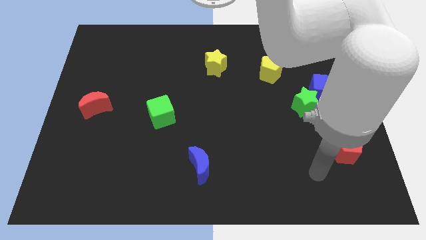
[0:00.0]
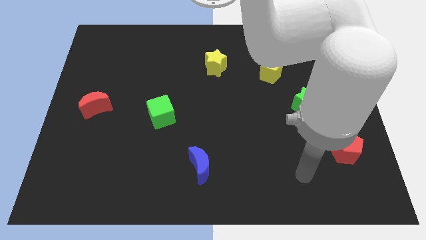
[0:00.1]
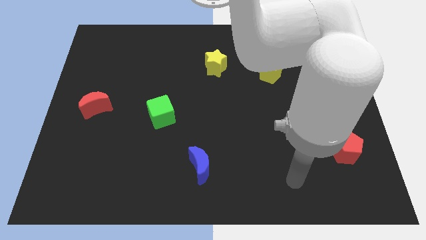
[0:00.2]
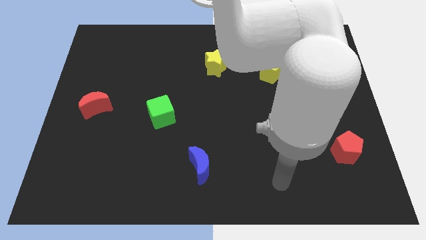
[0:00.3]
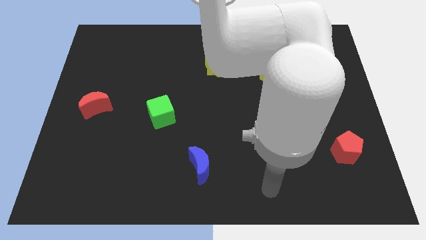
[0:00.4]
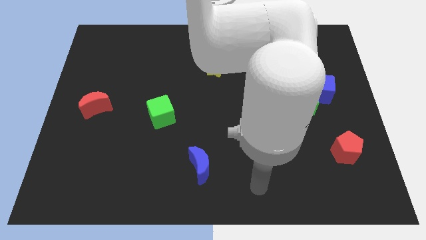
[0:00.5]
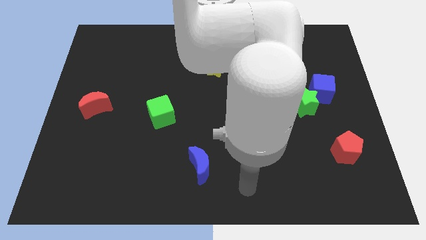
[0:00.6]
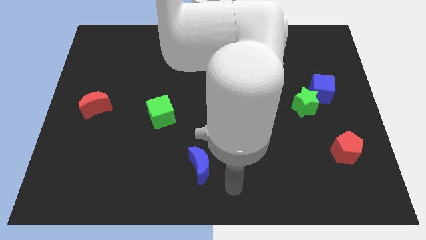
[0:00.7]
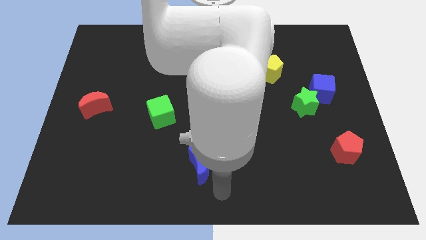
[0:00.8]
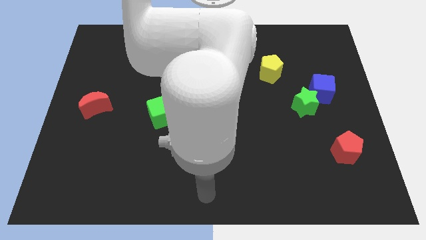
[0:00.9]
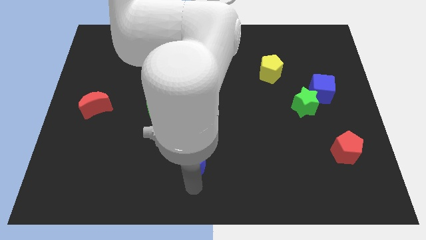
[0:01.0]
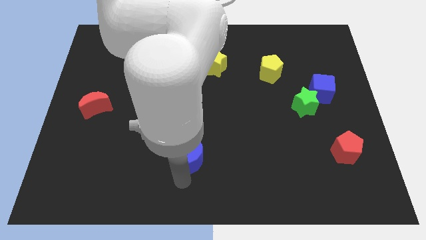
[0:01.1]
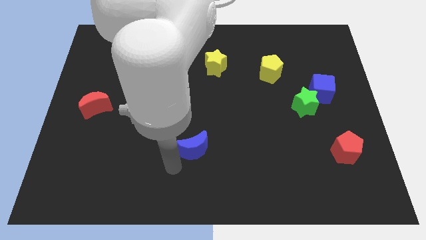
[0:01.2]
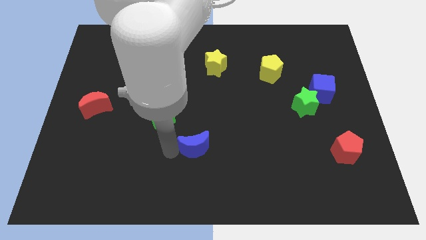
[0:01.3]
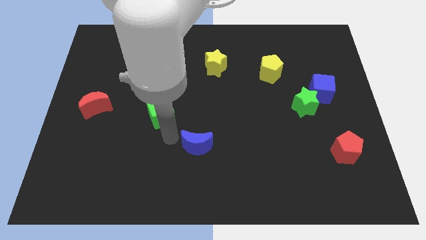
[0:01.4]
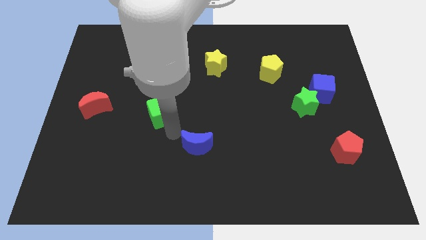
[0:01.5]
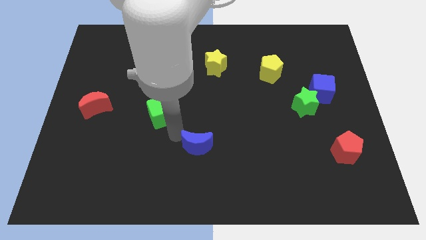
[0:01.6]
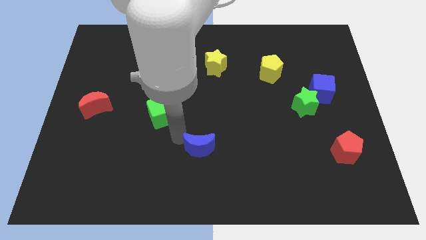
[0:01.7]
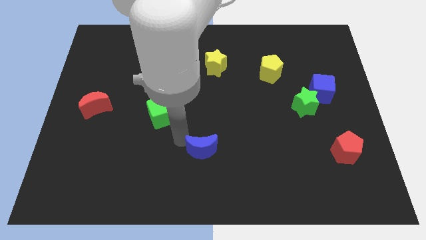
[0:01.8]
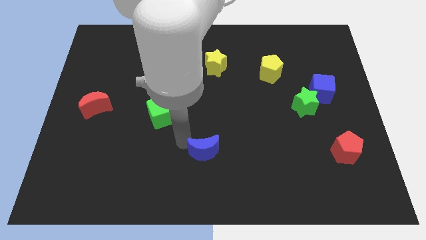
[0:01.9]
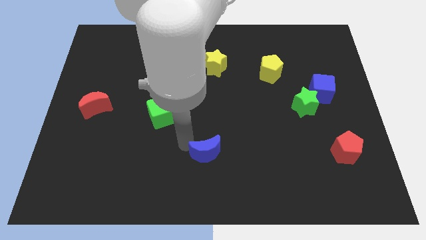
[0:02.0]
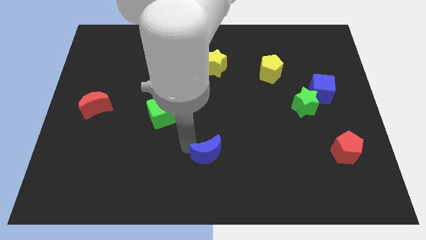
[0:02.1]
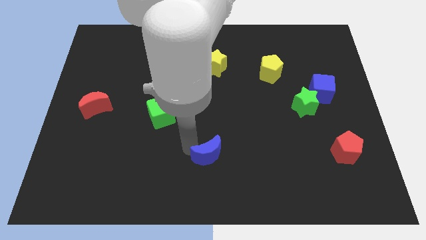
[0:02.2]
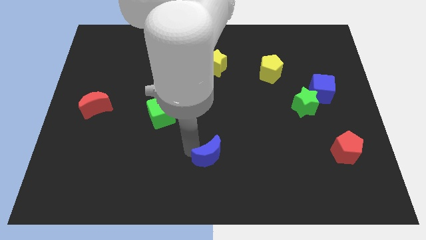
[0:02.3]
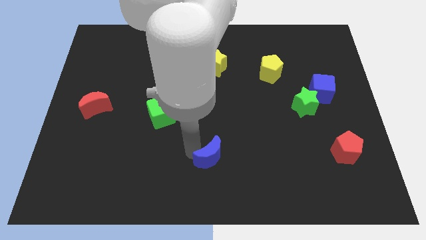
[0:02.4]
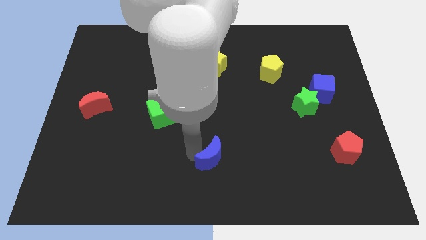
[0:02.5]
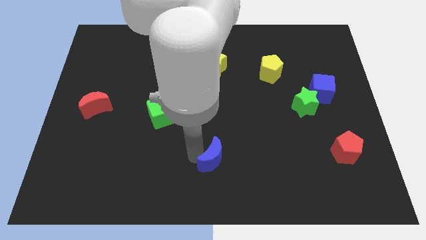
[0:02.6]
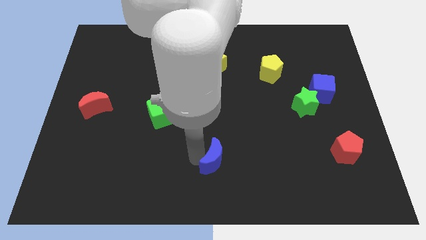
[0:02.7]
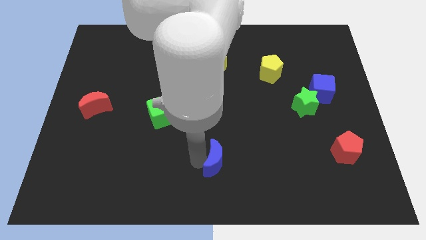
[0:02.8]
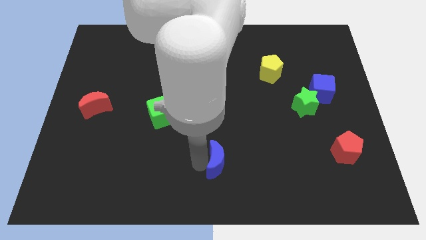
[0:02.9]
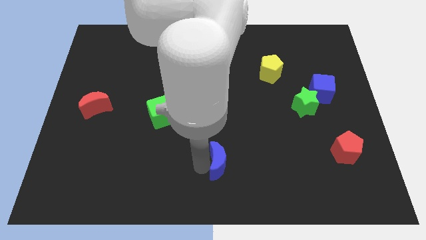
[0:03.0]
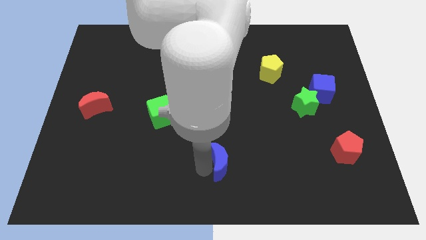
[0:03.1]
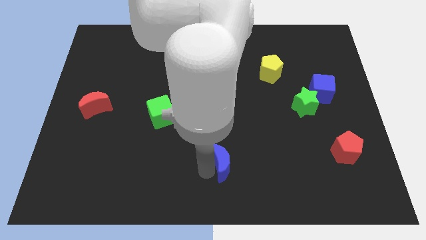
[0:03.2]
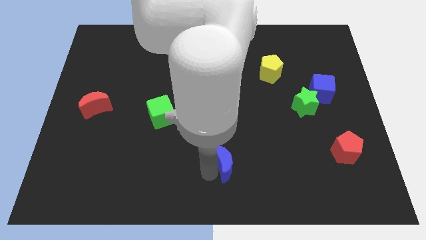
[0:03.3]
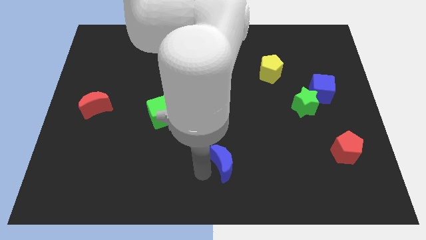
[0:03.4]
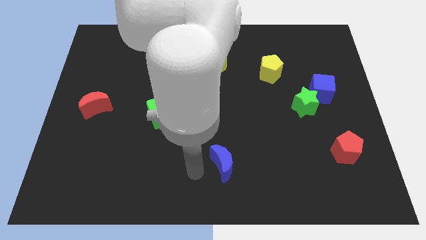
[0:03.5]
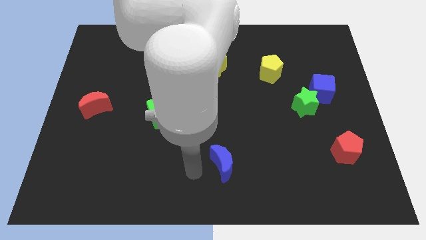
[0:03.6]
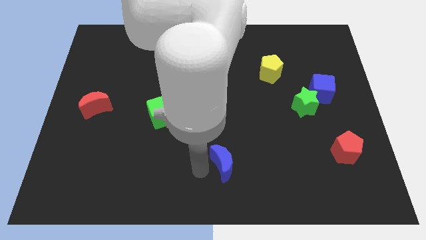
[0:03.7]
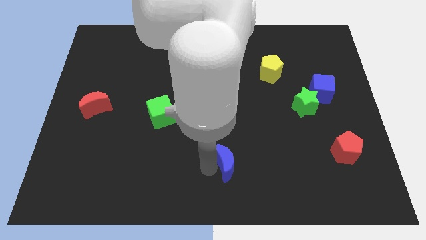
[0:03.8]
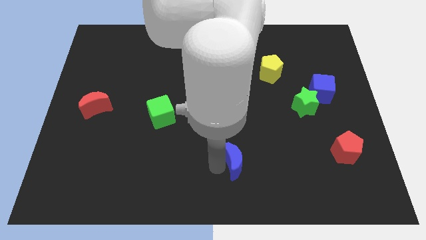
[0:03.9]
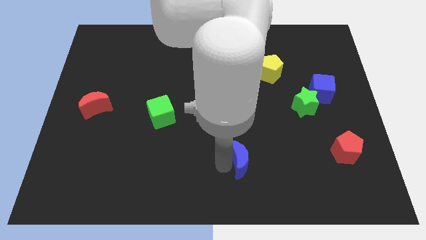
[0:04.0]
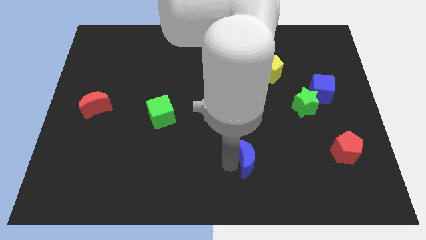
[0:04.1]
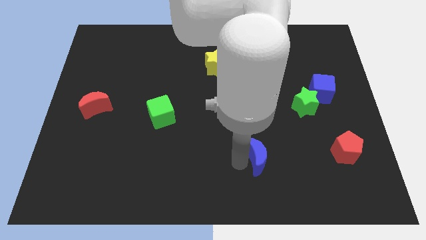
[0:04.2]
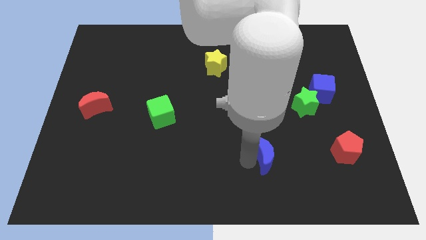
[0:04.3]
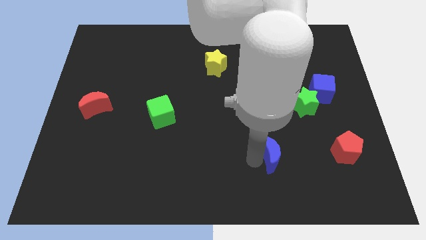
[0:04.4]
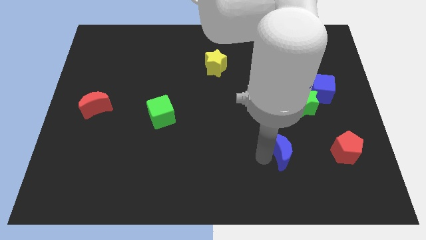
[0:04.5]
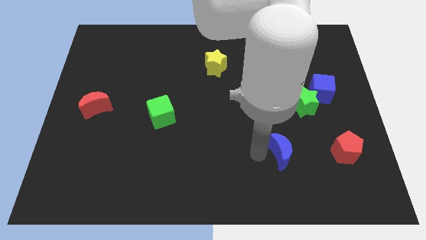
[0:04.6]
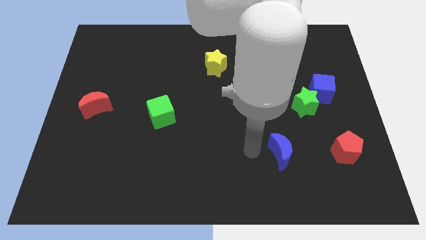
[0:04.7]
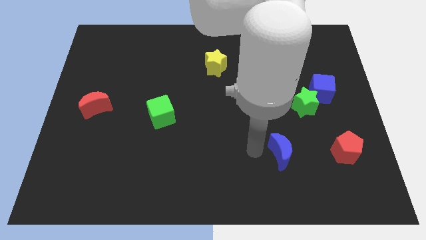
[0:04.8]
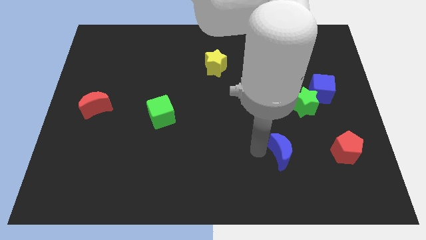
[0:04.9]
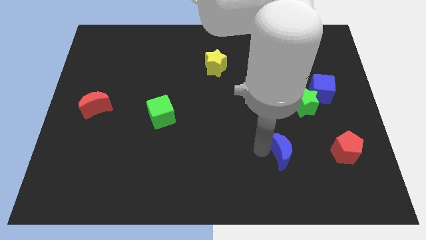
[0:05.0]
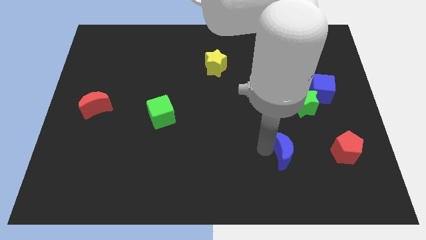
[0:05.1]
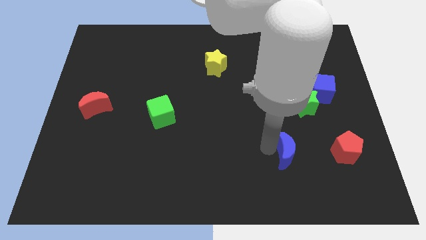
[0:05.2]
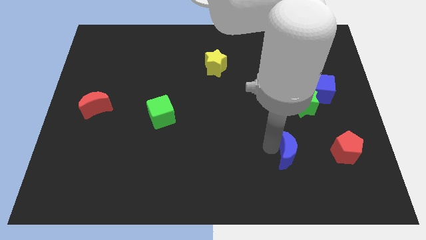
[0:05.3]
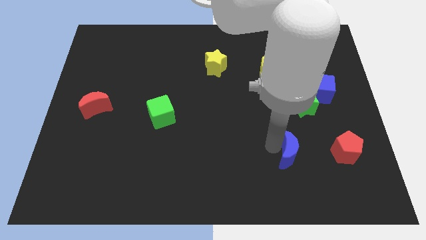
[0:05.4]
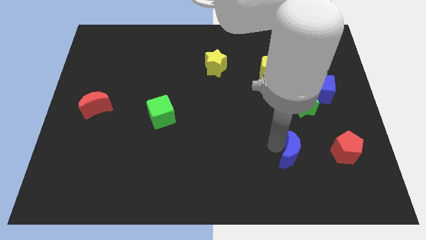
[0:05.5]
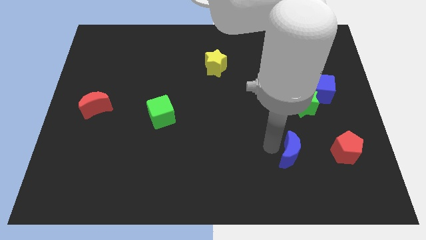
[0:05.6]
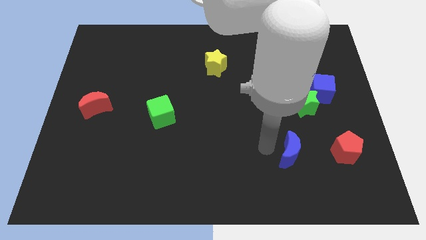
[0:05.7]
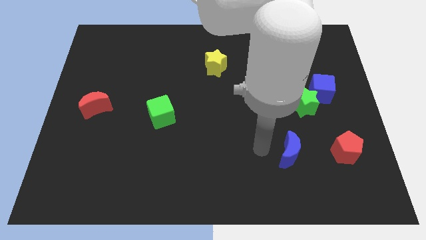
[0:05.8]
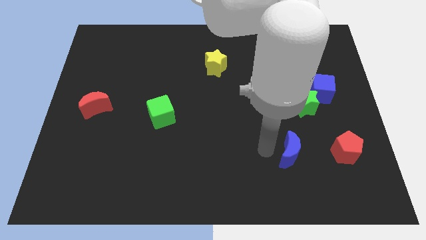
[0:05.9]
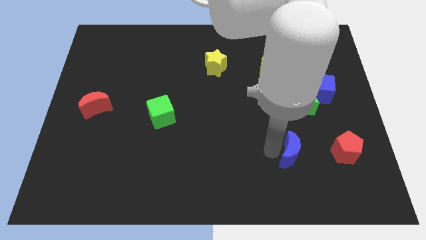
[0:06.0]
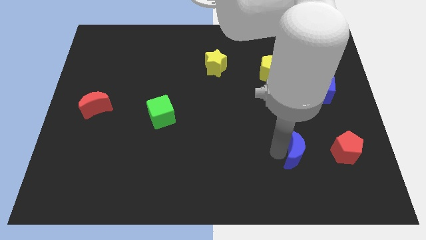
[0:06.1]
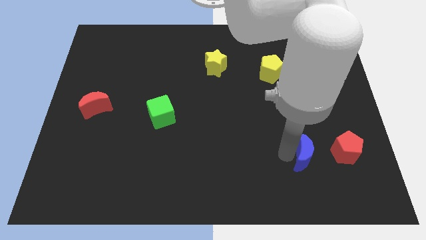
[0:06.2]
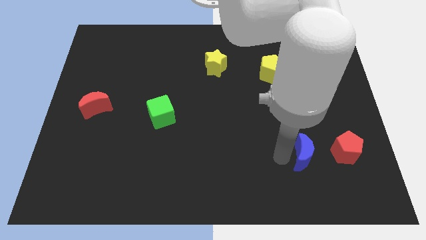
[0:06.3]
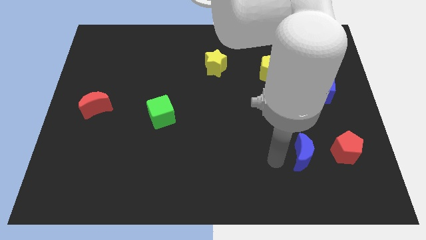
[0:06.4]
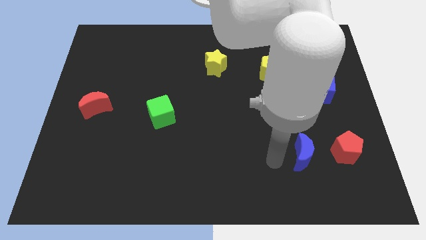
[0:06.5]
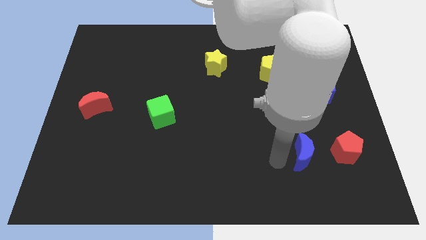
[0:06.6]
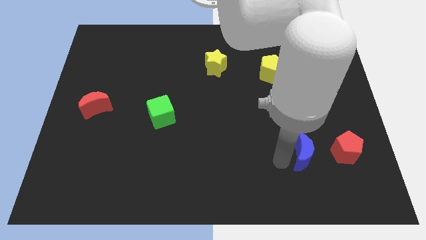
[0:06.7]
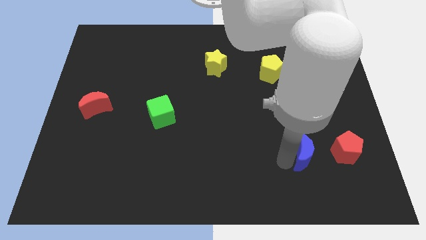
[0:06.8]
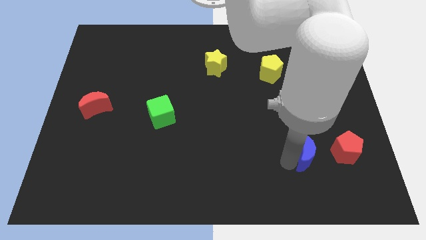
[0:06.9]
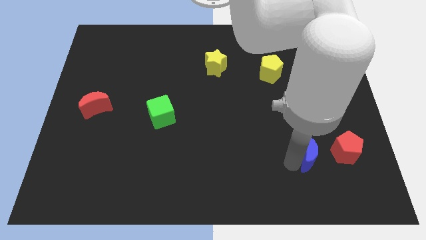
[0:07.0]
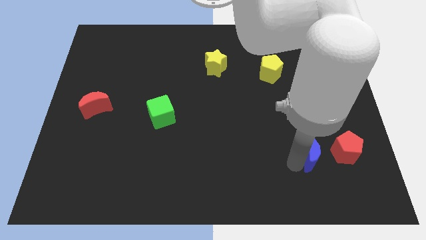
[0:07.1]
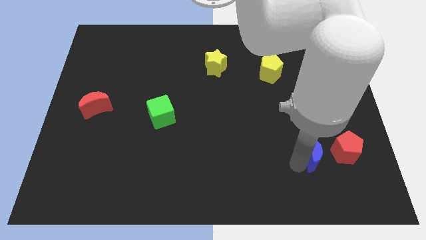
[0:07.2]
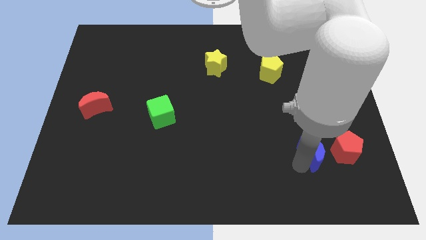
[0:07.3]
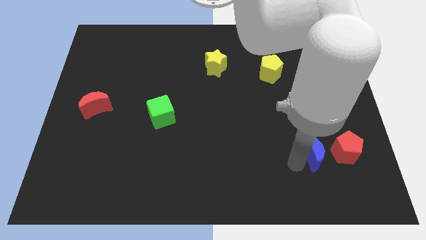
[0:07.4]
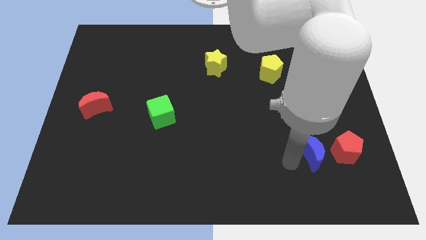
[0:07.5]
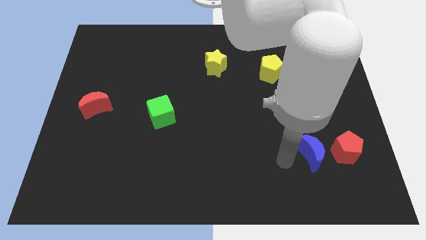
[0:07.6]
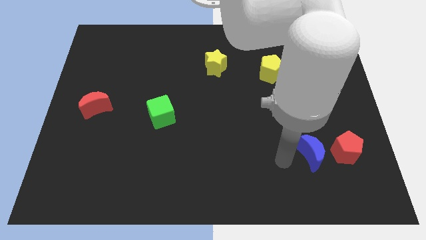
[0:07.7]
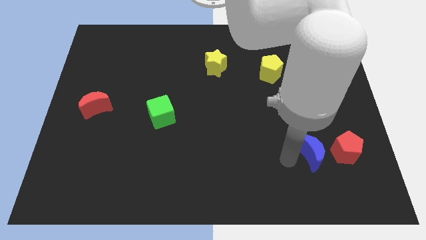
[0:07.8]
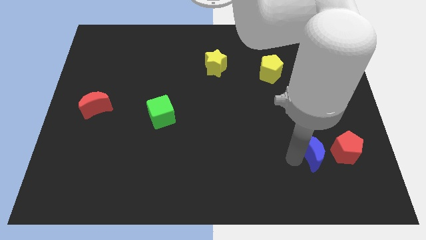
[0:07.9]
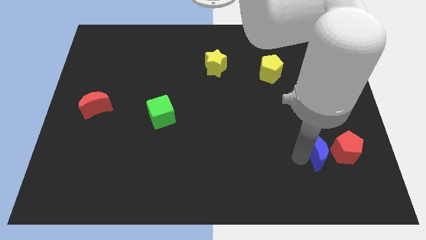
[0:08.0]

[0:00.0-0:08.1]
slide the blue moon to the red pentagon

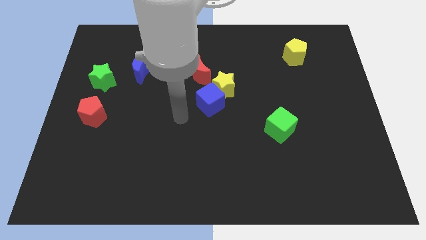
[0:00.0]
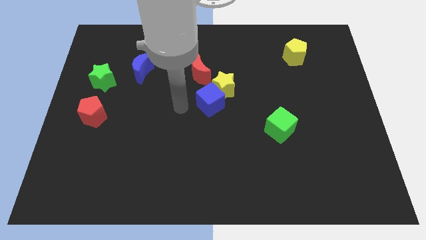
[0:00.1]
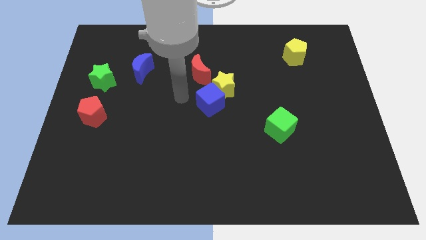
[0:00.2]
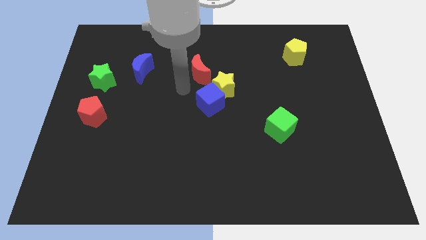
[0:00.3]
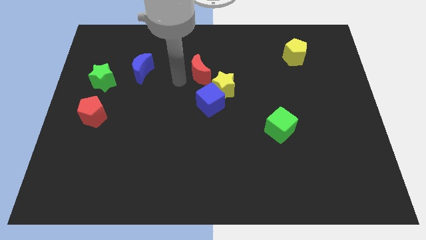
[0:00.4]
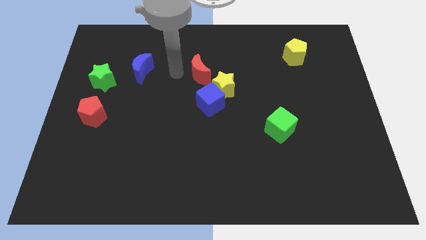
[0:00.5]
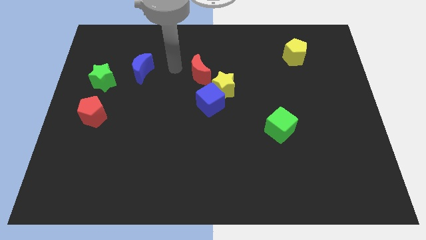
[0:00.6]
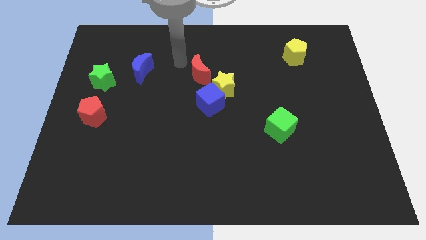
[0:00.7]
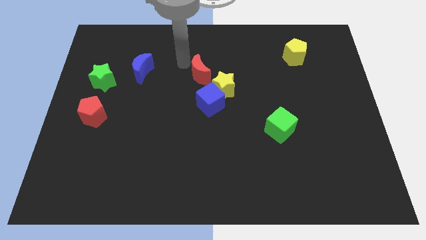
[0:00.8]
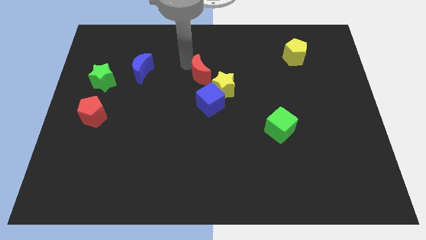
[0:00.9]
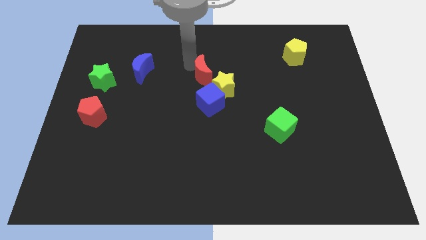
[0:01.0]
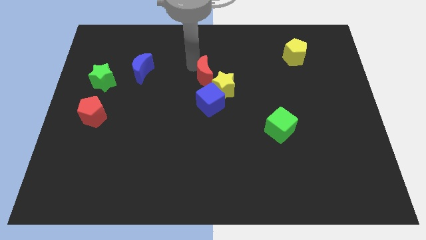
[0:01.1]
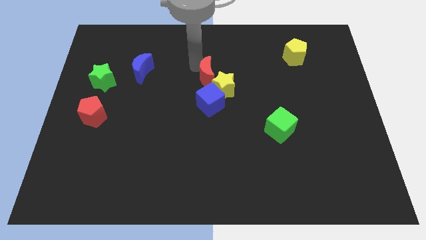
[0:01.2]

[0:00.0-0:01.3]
put the red moon next to the yellow star
